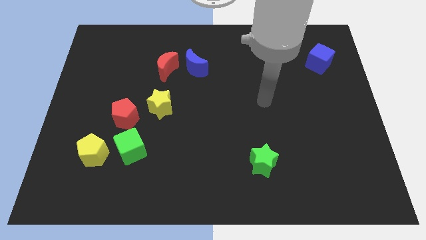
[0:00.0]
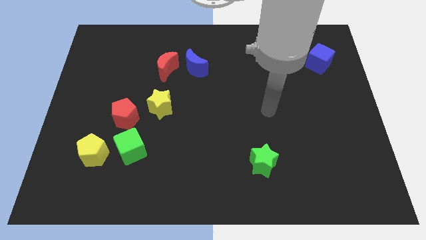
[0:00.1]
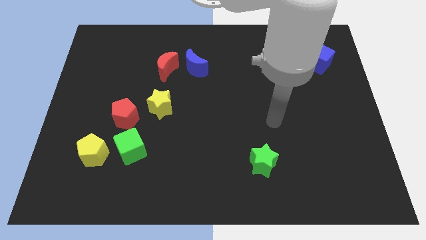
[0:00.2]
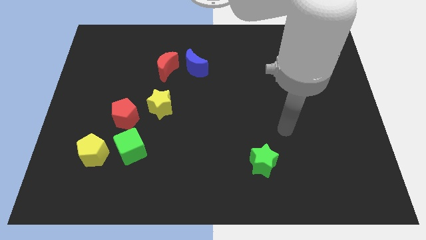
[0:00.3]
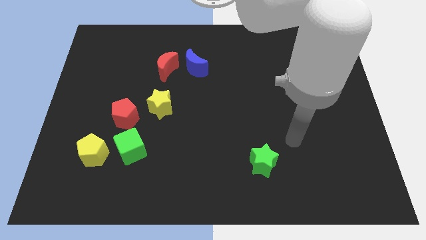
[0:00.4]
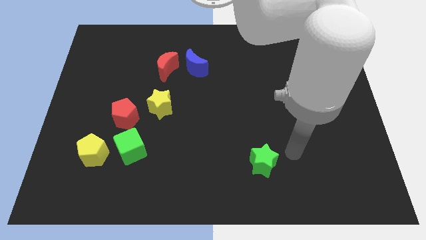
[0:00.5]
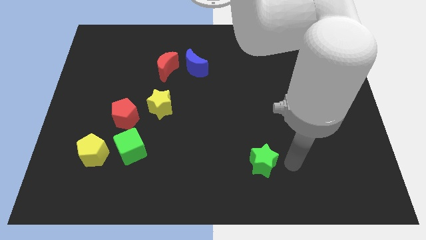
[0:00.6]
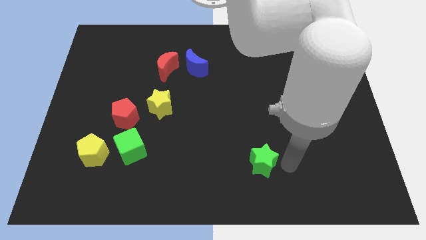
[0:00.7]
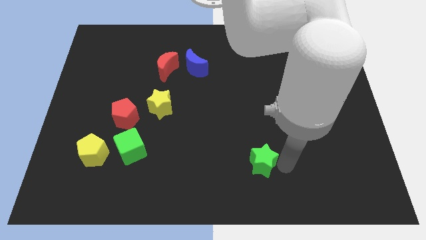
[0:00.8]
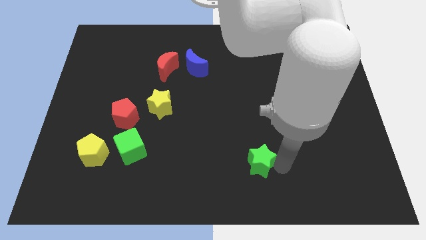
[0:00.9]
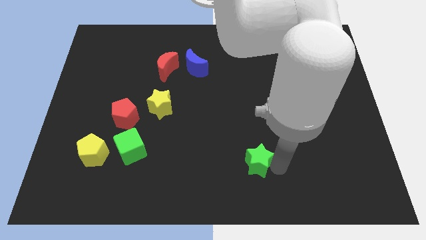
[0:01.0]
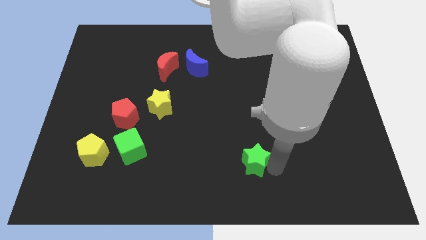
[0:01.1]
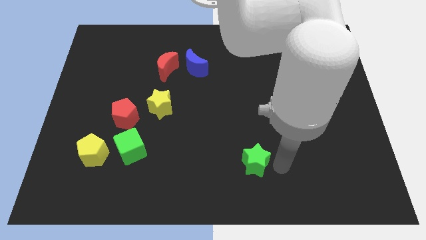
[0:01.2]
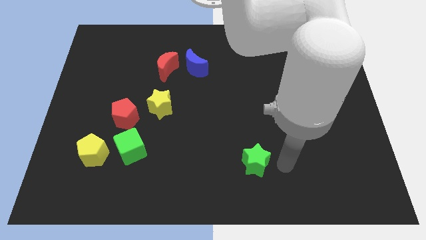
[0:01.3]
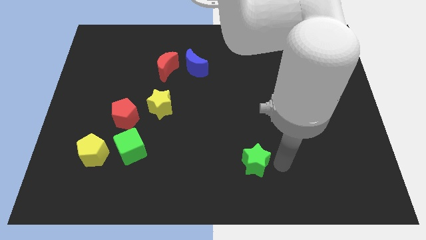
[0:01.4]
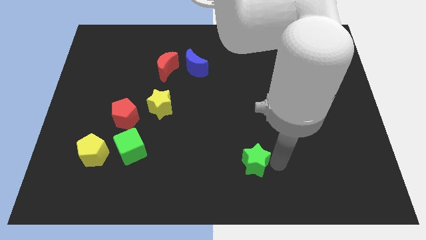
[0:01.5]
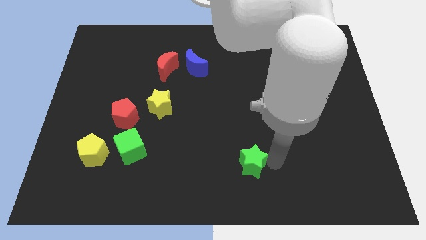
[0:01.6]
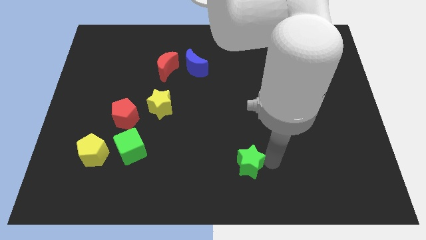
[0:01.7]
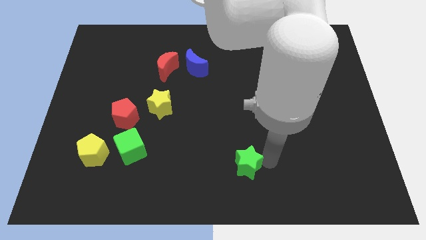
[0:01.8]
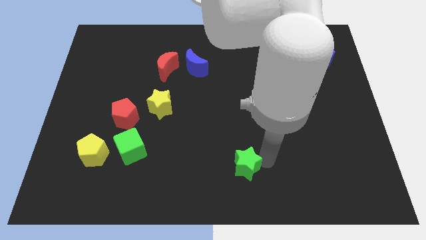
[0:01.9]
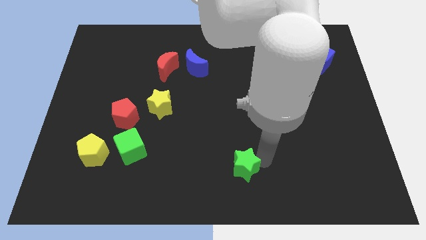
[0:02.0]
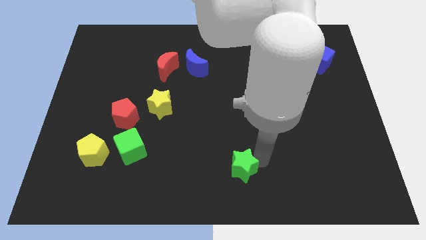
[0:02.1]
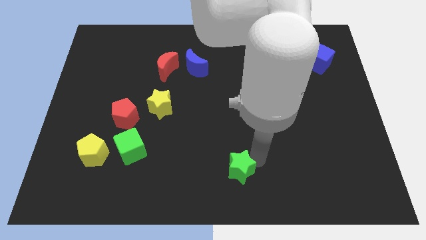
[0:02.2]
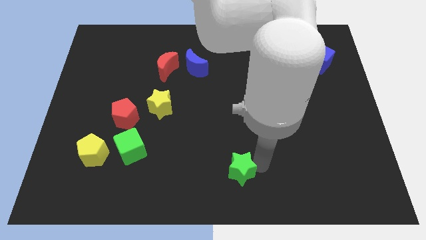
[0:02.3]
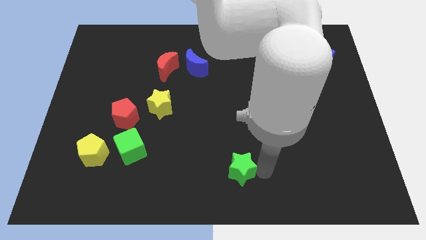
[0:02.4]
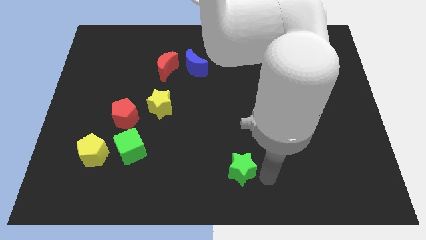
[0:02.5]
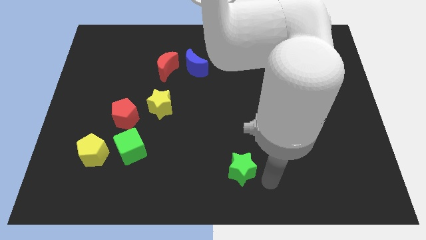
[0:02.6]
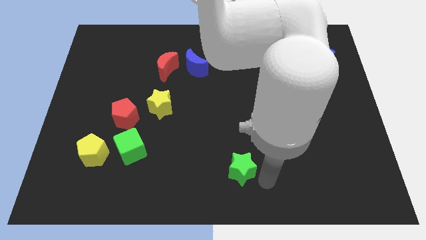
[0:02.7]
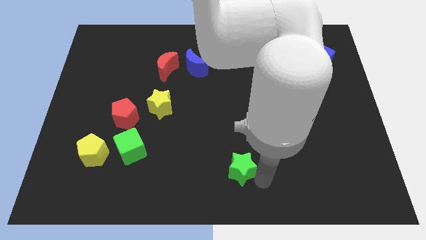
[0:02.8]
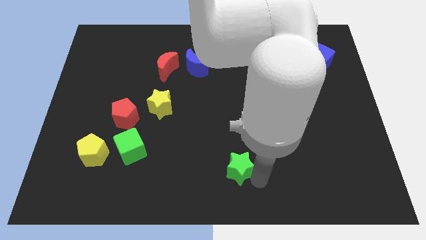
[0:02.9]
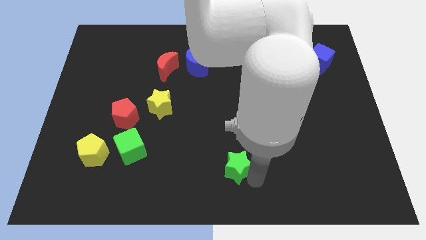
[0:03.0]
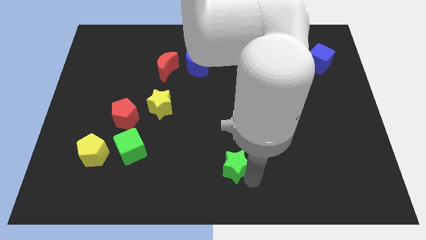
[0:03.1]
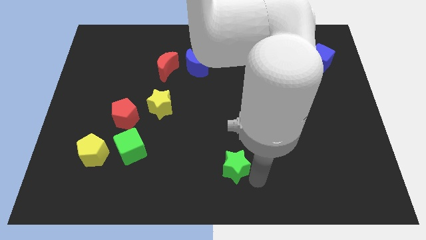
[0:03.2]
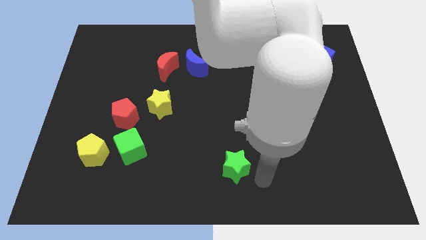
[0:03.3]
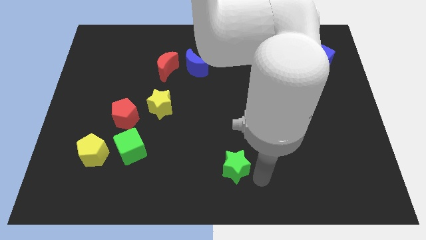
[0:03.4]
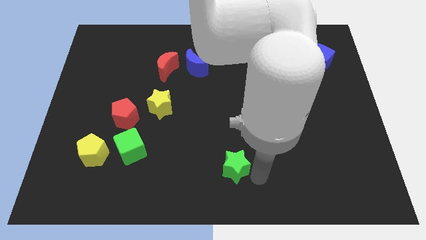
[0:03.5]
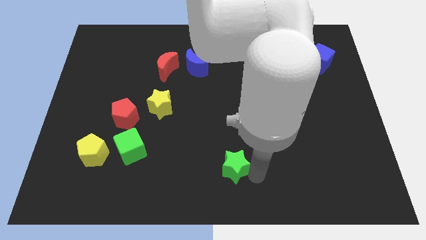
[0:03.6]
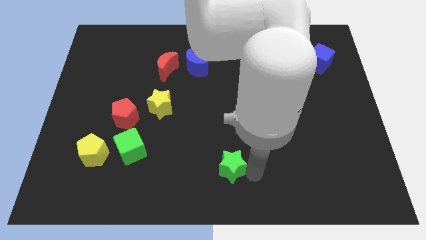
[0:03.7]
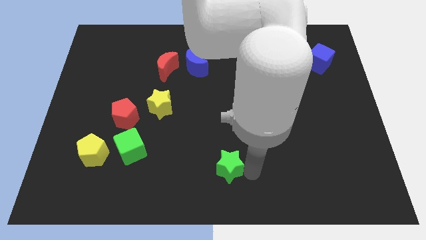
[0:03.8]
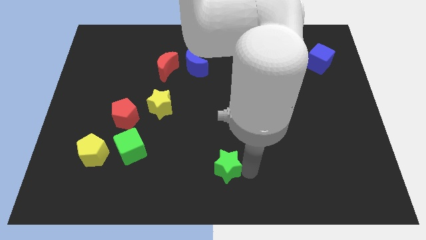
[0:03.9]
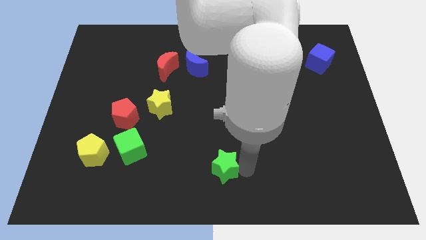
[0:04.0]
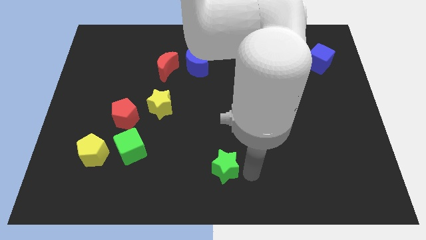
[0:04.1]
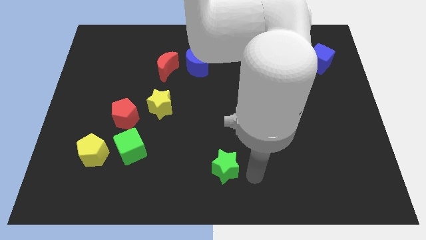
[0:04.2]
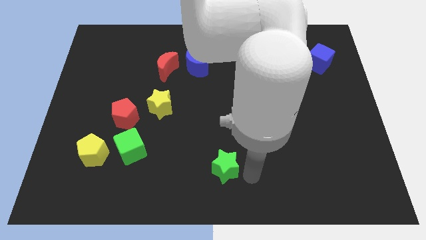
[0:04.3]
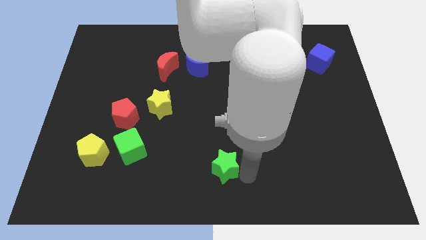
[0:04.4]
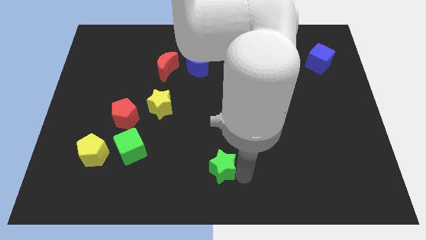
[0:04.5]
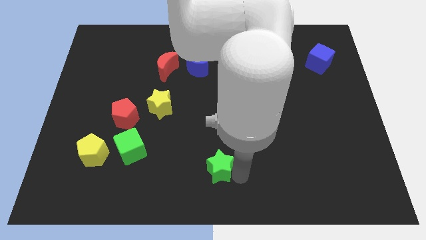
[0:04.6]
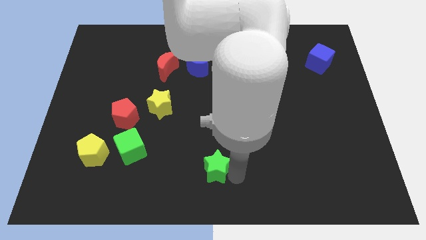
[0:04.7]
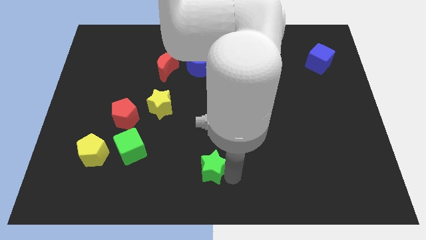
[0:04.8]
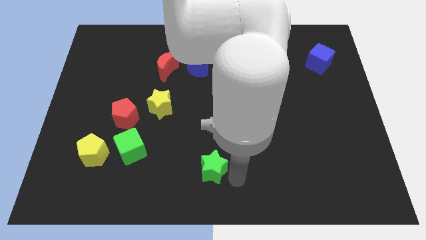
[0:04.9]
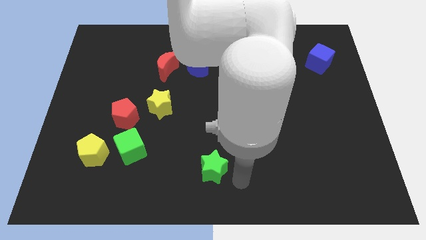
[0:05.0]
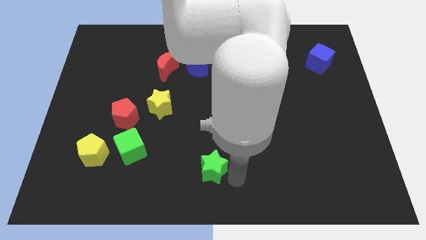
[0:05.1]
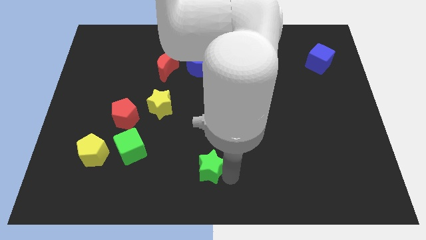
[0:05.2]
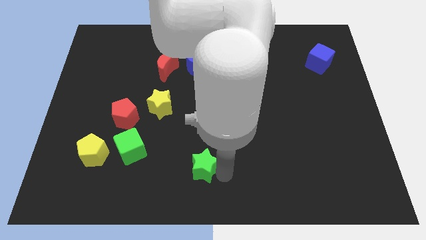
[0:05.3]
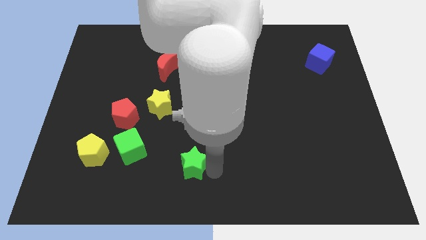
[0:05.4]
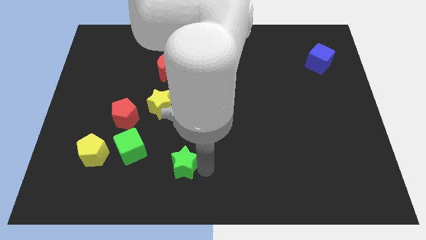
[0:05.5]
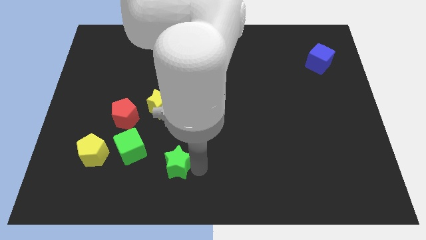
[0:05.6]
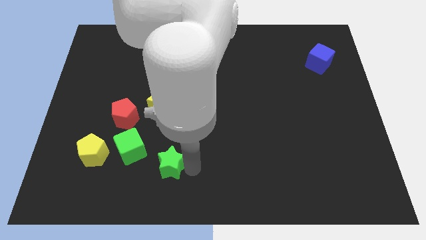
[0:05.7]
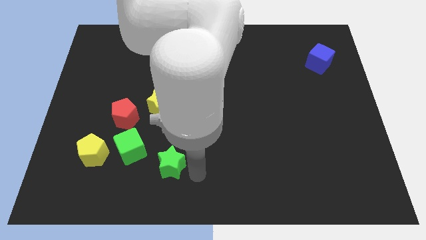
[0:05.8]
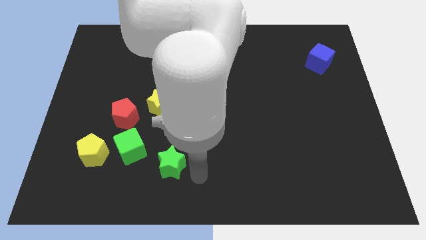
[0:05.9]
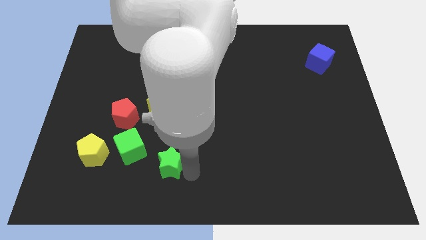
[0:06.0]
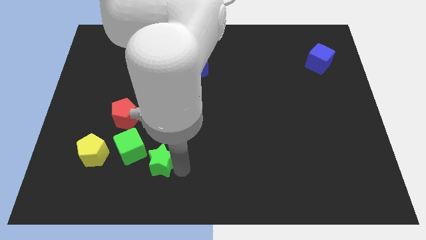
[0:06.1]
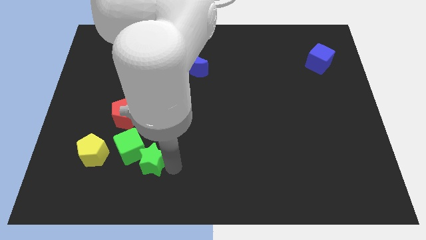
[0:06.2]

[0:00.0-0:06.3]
put the green star close to the green cube

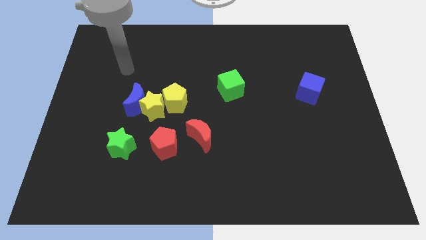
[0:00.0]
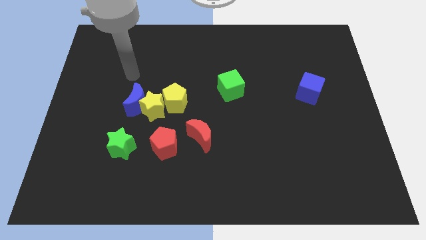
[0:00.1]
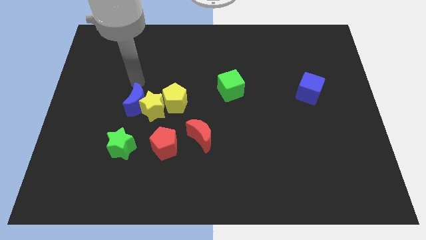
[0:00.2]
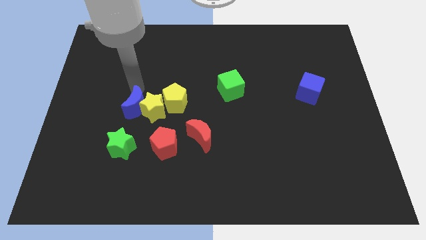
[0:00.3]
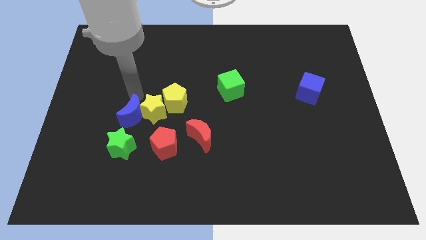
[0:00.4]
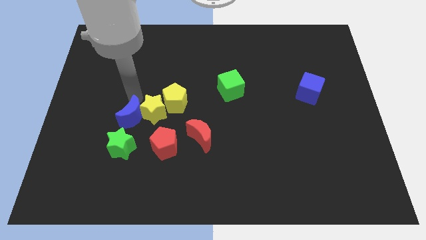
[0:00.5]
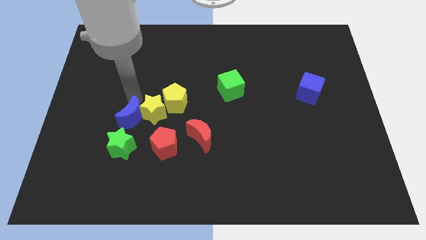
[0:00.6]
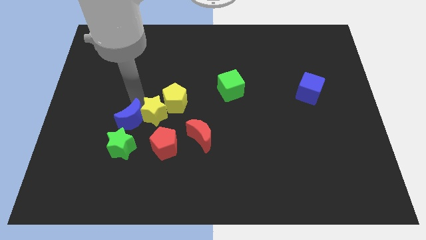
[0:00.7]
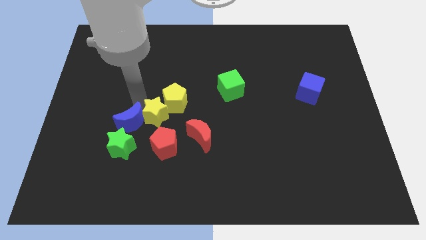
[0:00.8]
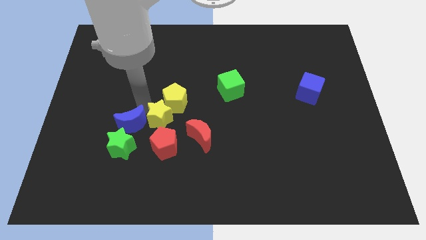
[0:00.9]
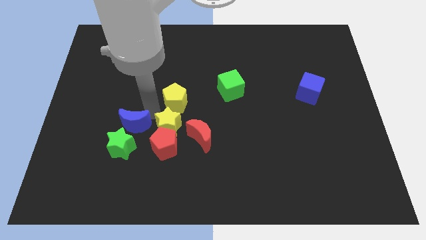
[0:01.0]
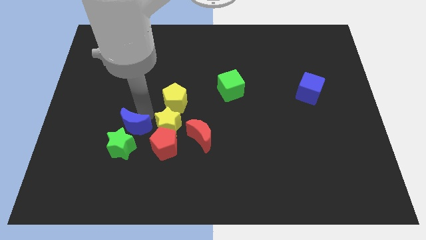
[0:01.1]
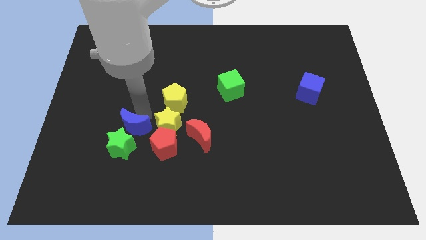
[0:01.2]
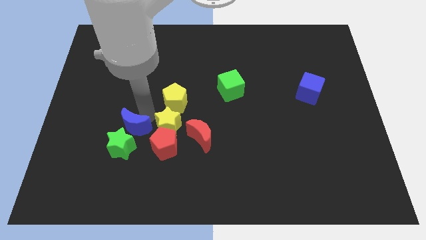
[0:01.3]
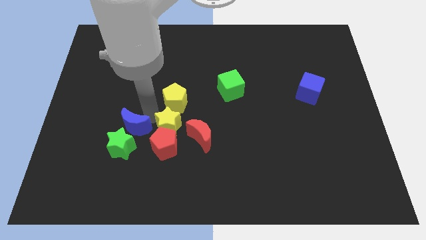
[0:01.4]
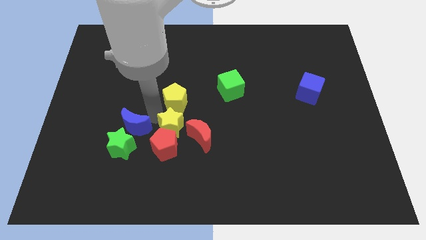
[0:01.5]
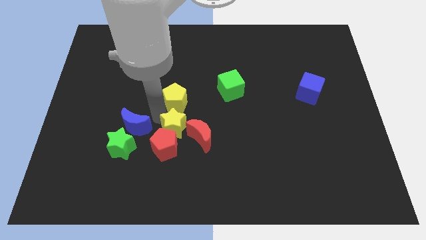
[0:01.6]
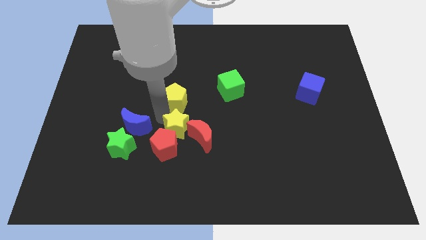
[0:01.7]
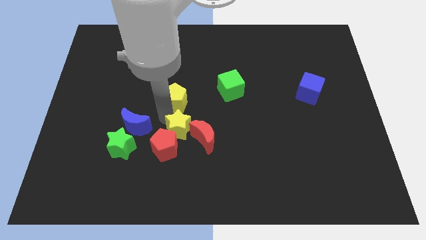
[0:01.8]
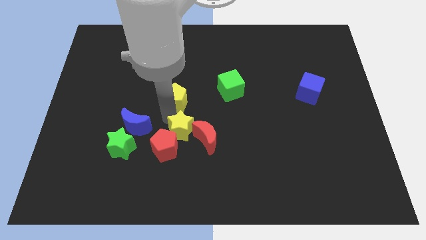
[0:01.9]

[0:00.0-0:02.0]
move the yellow star to the red moon
